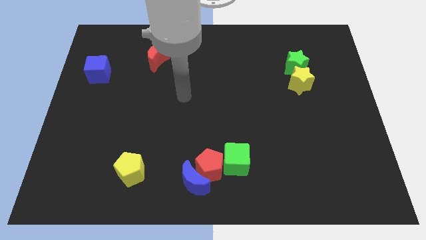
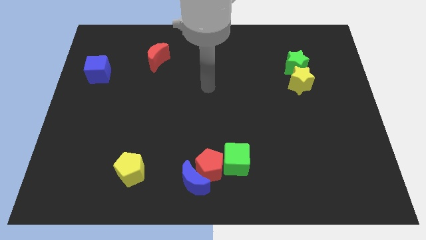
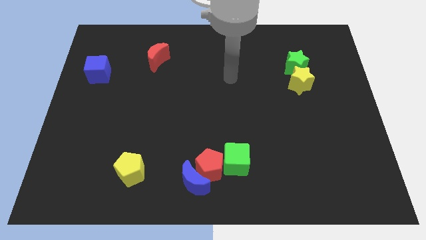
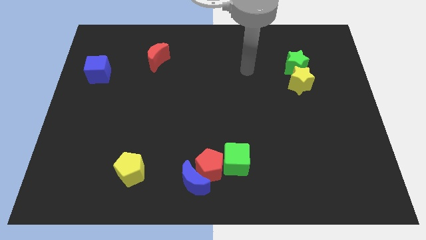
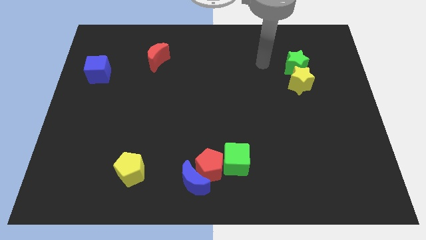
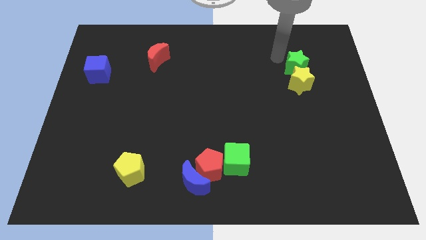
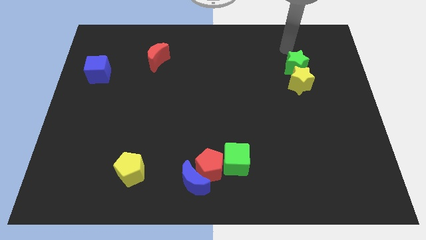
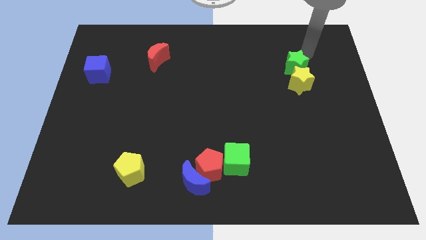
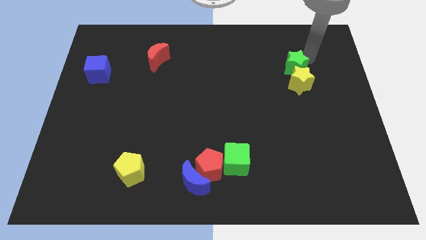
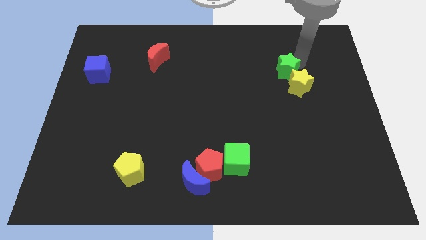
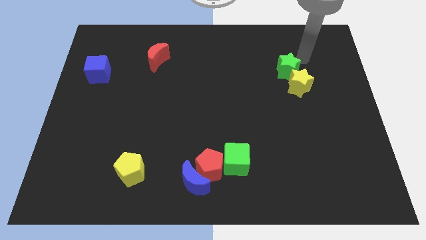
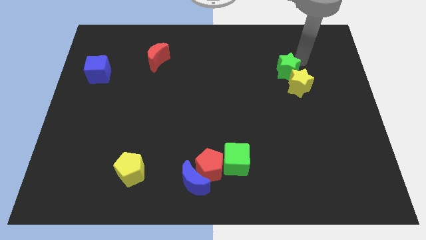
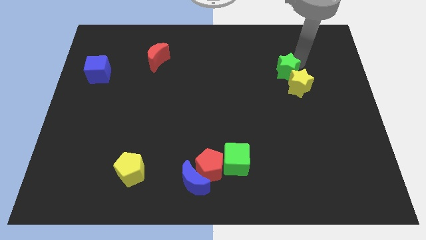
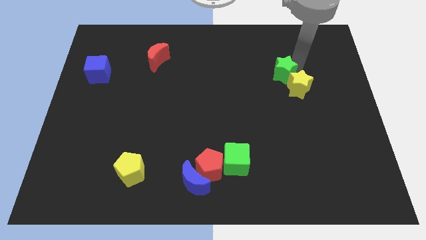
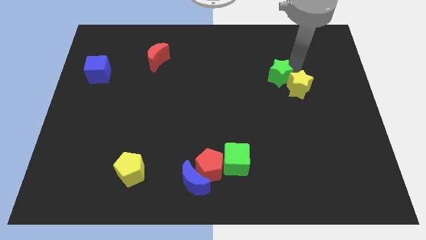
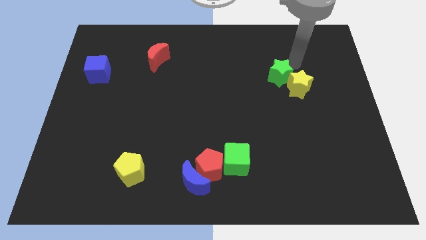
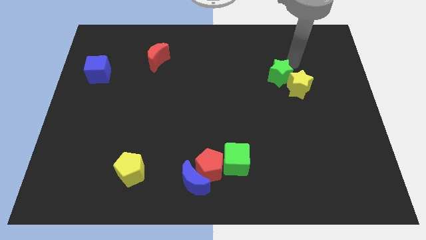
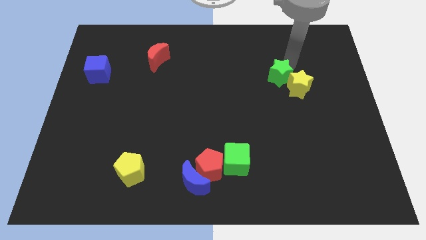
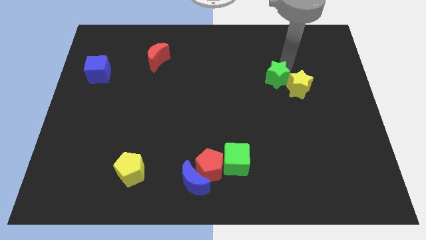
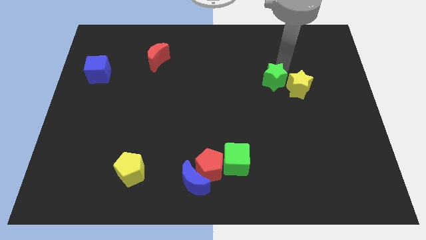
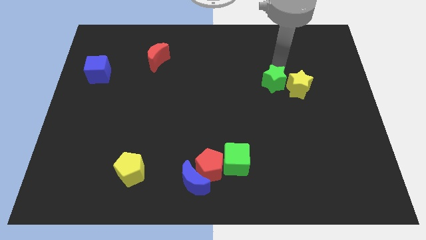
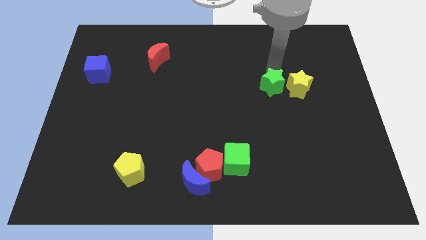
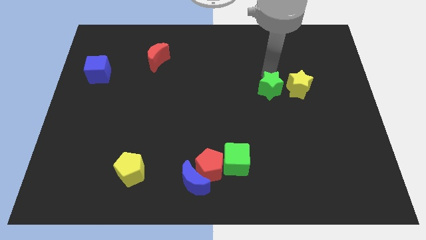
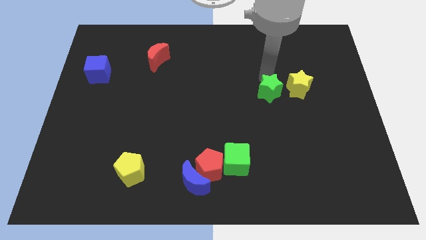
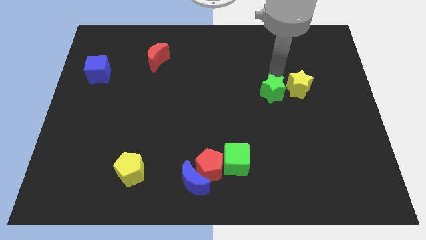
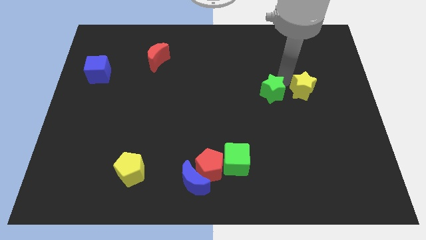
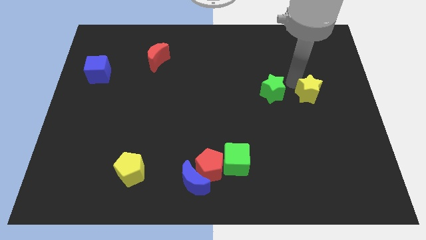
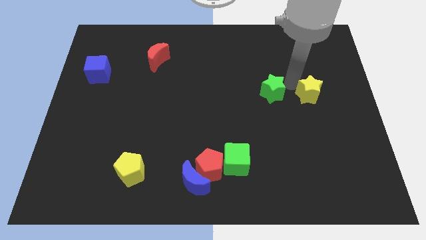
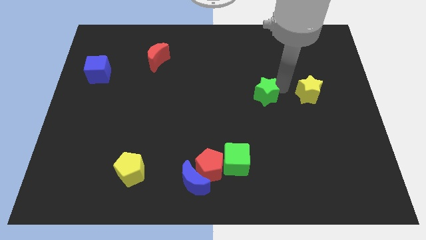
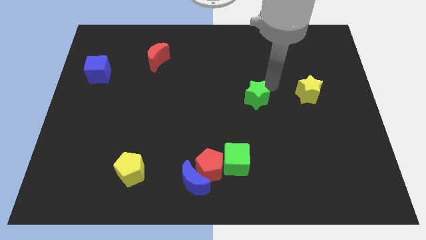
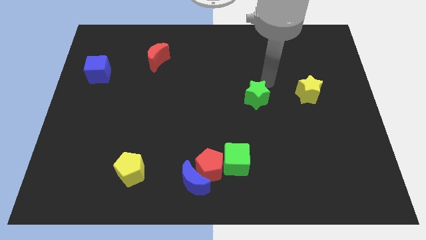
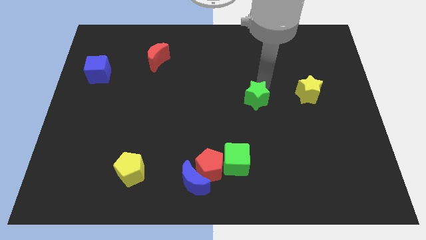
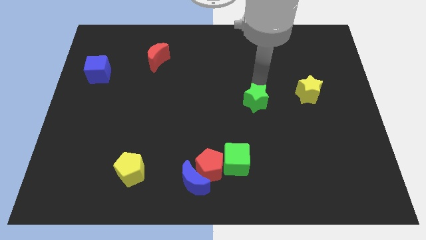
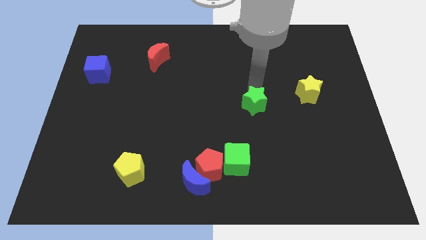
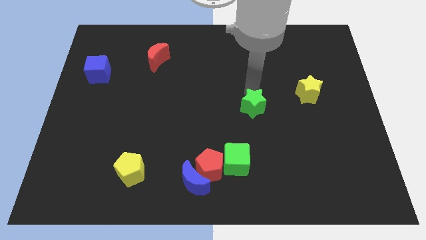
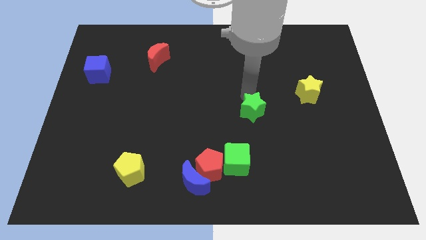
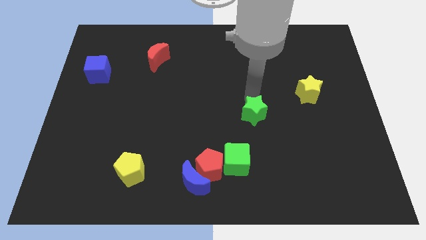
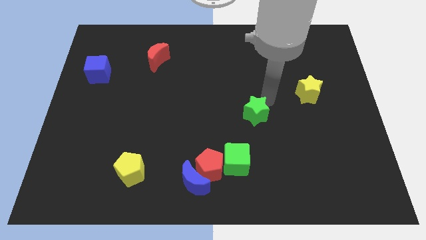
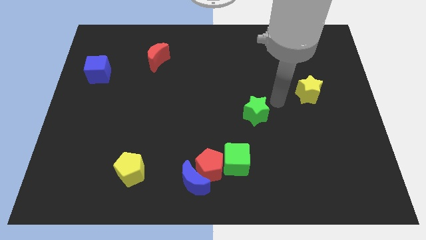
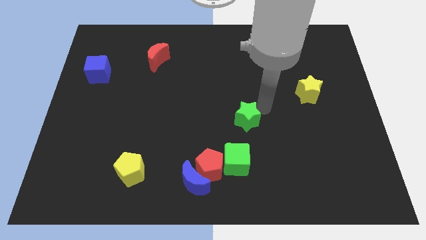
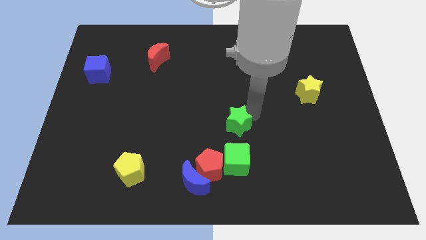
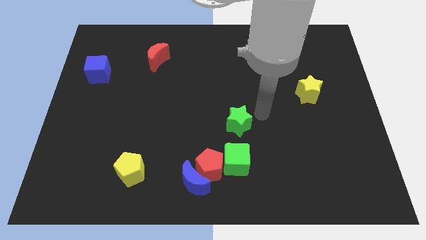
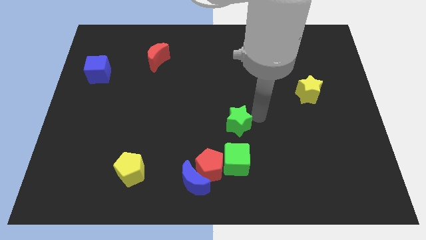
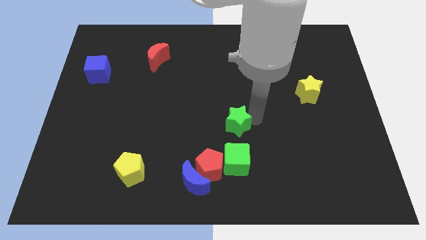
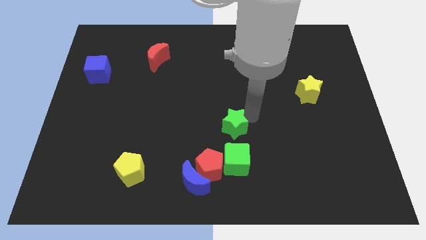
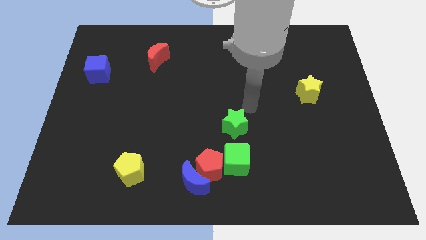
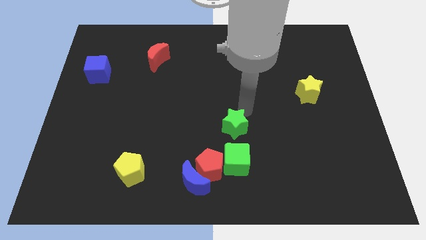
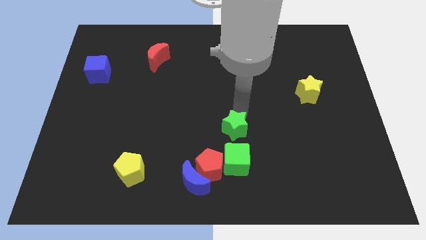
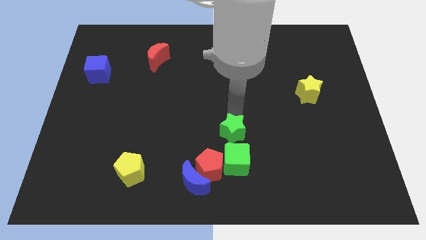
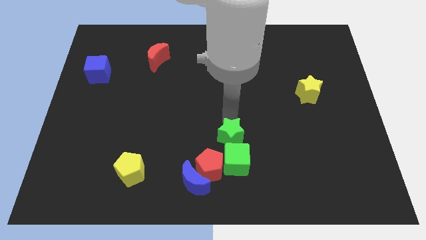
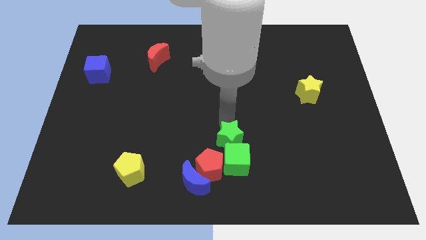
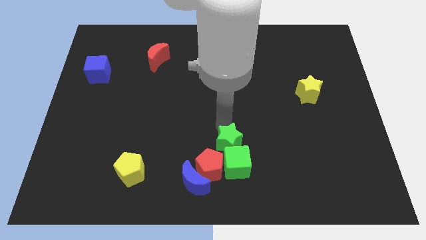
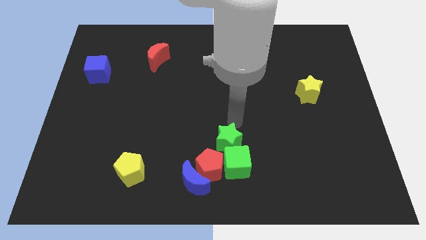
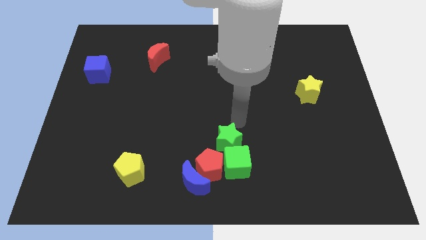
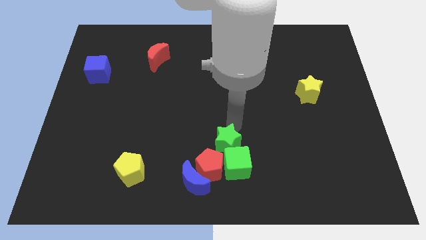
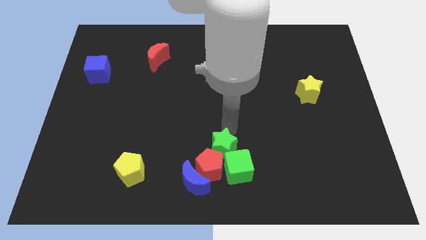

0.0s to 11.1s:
push the green star next to the red pentagon

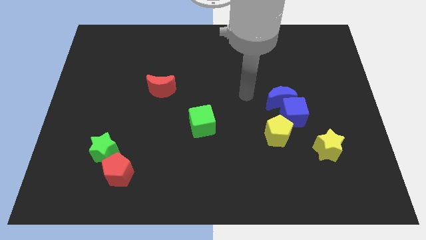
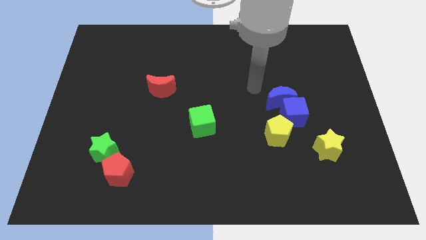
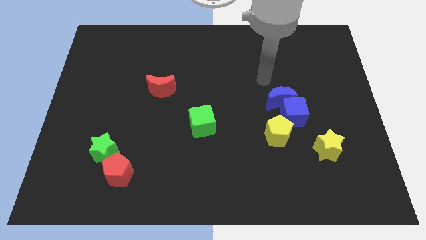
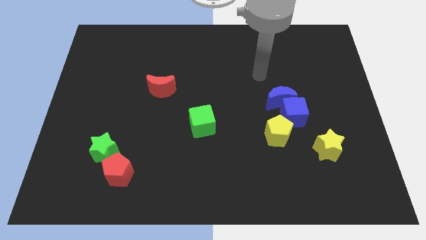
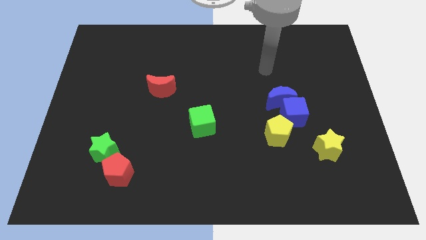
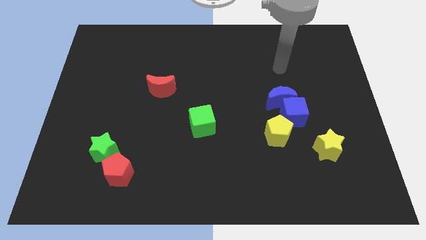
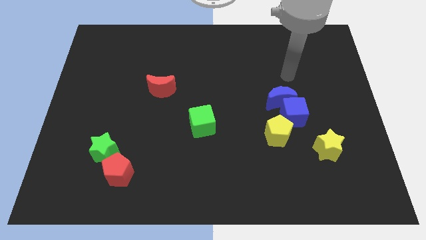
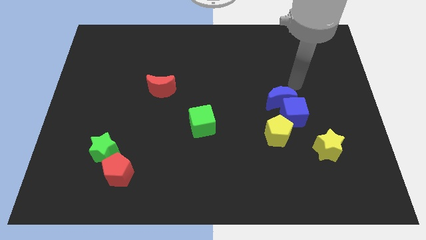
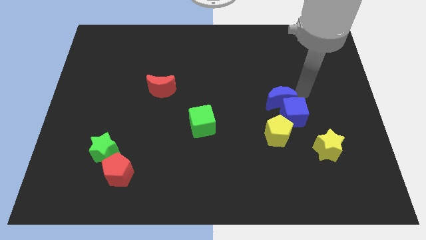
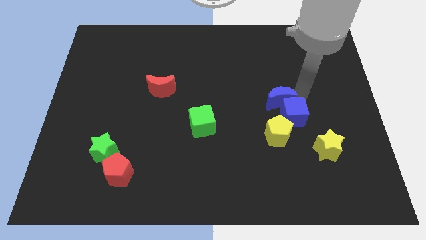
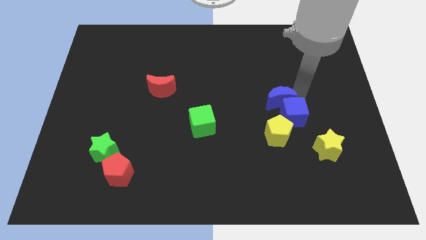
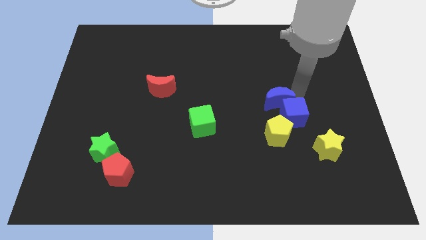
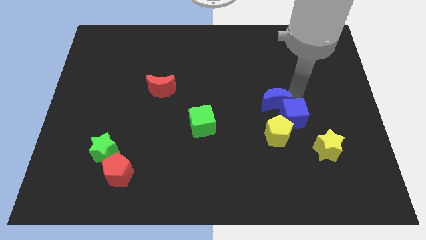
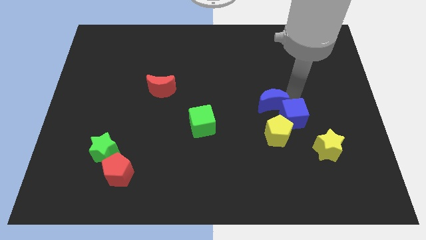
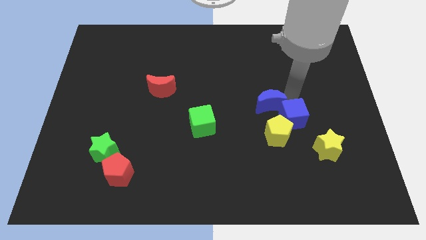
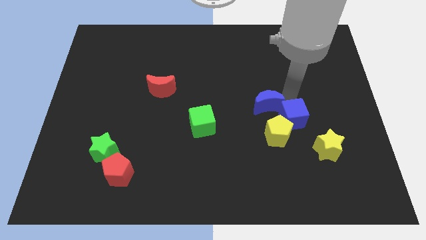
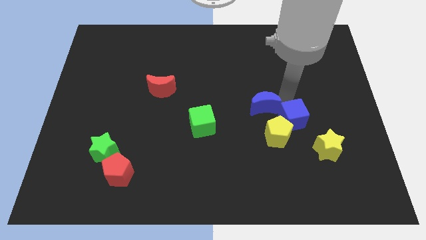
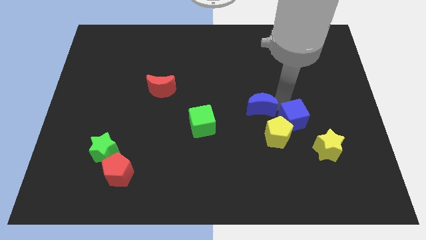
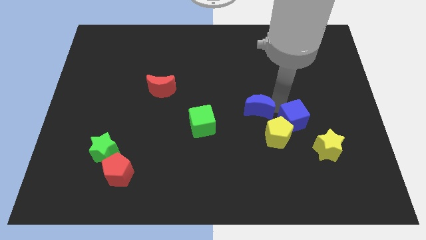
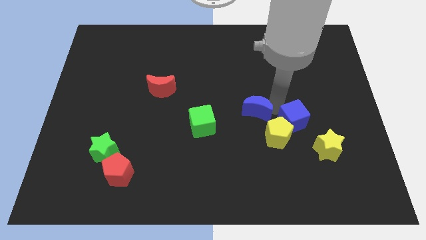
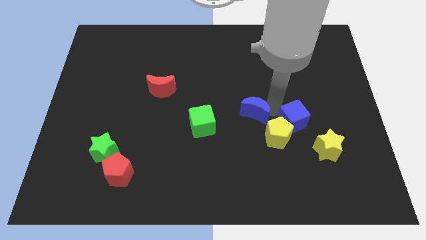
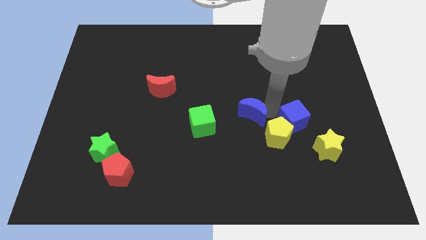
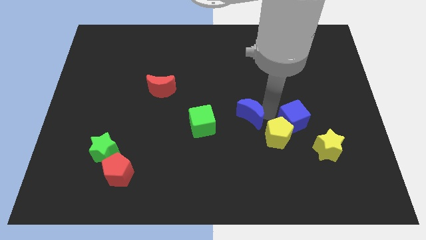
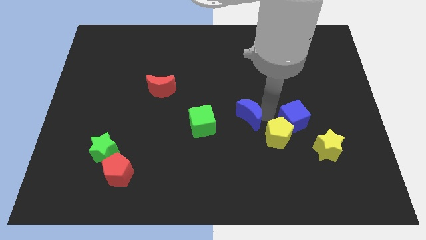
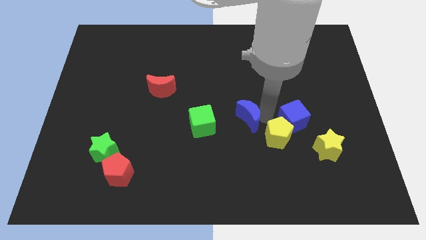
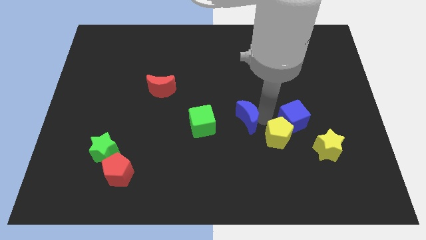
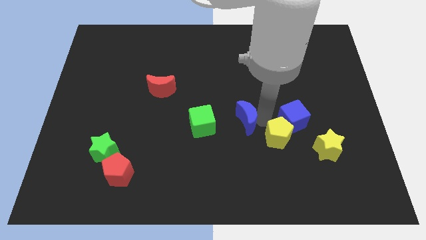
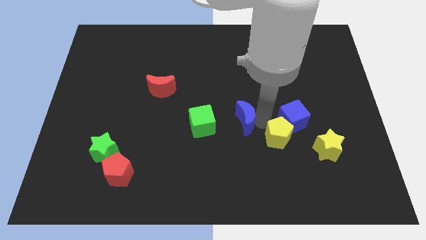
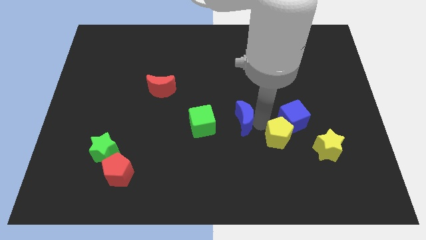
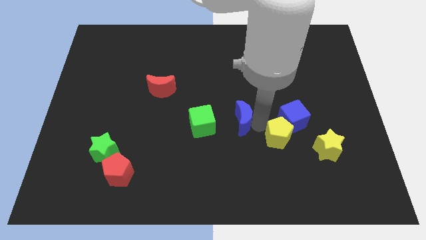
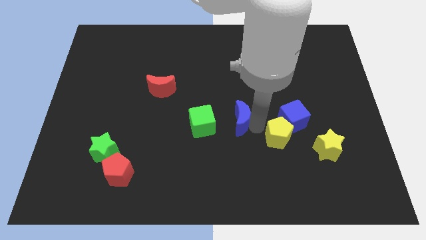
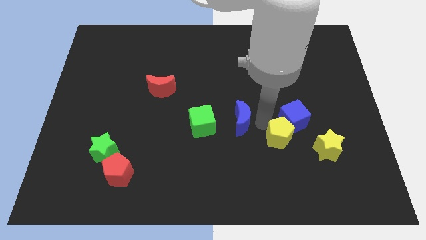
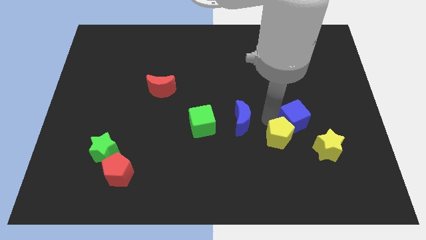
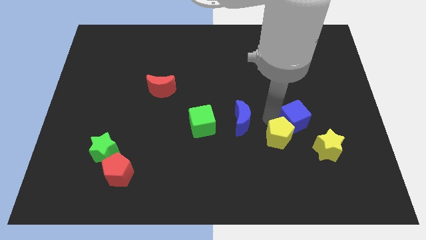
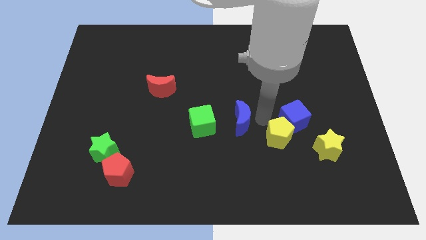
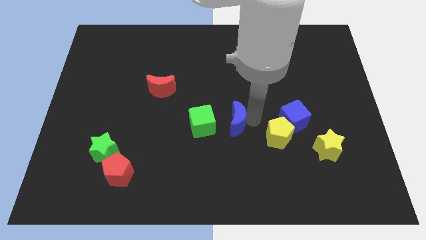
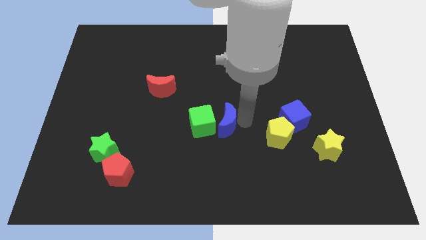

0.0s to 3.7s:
put the blue moon towards the green cube
